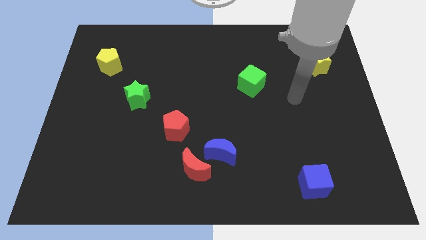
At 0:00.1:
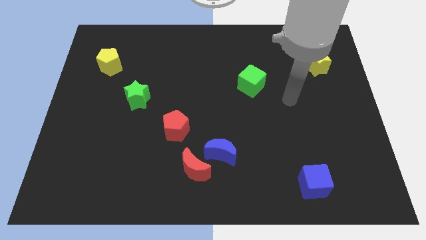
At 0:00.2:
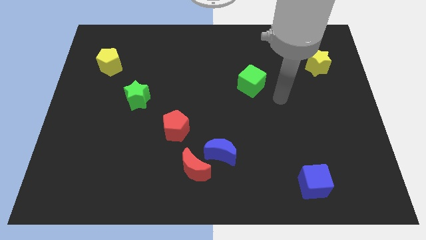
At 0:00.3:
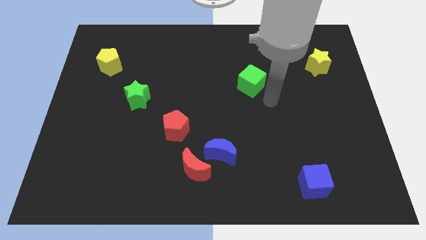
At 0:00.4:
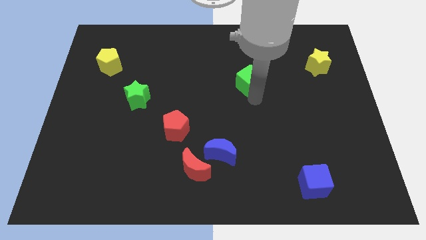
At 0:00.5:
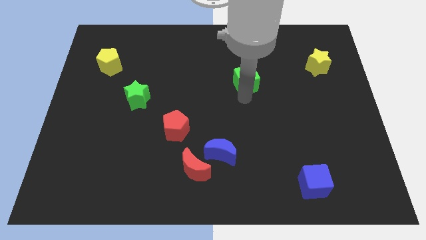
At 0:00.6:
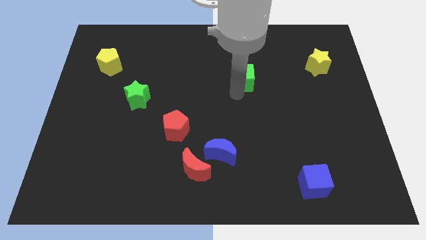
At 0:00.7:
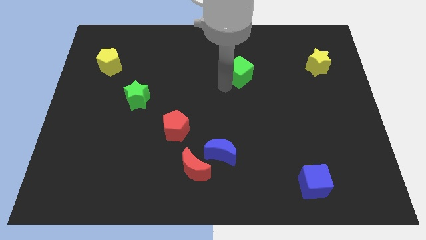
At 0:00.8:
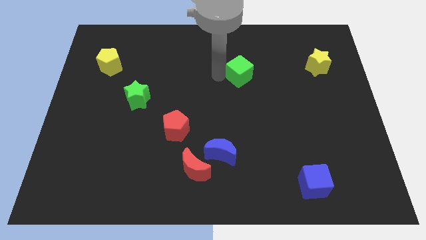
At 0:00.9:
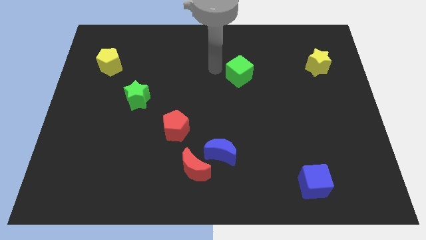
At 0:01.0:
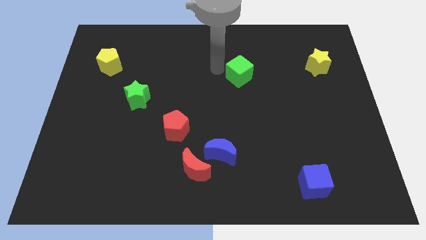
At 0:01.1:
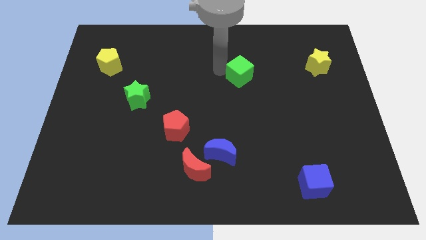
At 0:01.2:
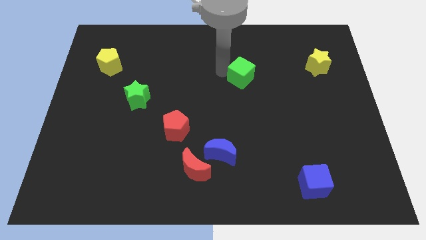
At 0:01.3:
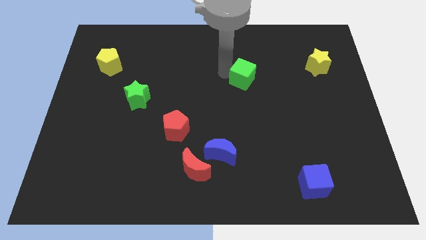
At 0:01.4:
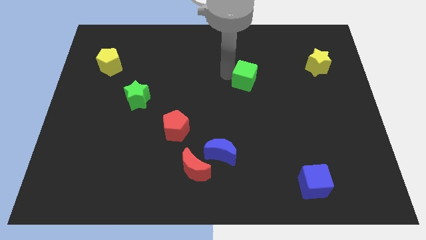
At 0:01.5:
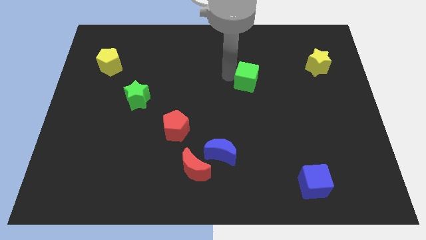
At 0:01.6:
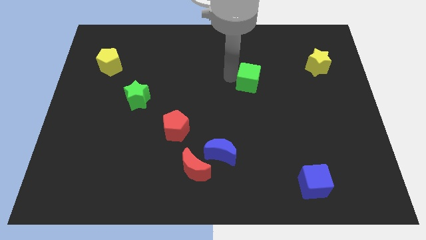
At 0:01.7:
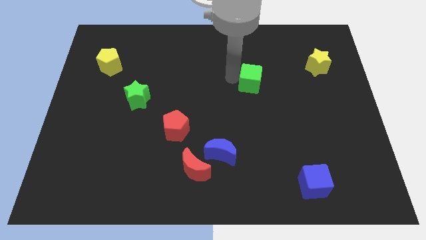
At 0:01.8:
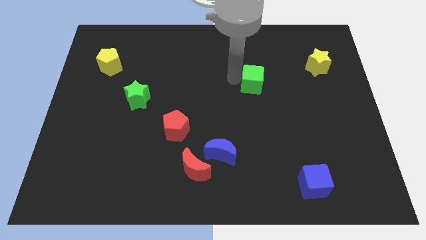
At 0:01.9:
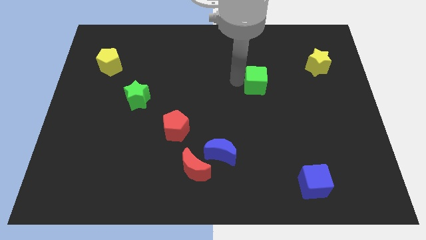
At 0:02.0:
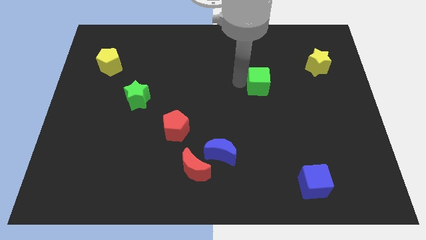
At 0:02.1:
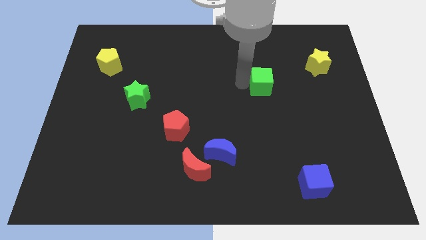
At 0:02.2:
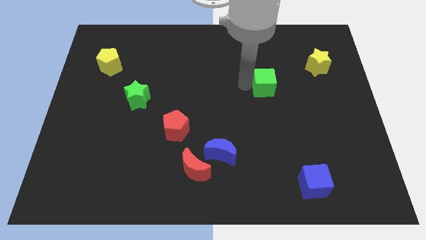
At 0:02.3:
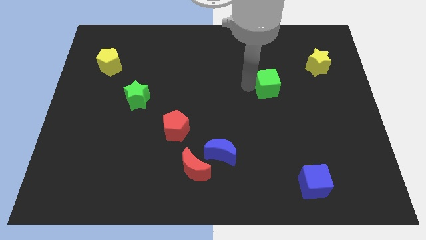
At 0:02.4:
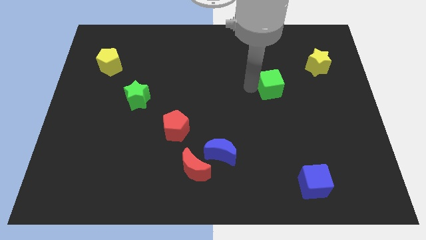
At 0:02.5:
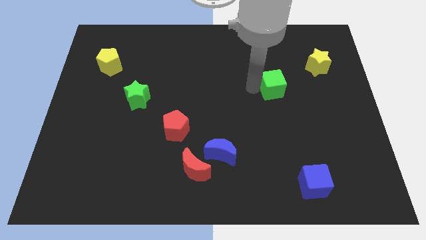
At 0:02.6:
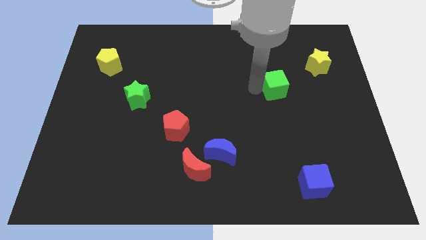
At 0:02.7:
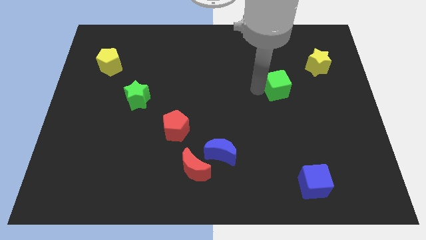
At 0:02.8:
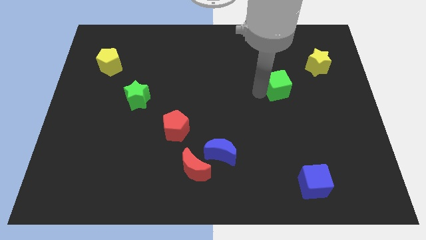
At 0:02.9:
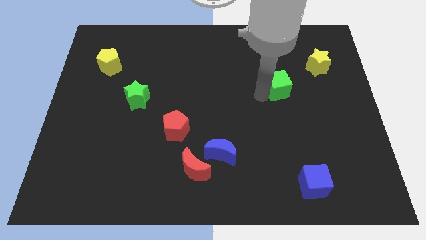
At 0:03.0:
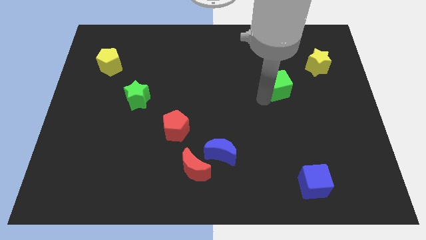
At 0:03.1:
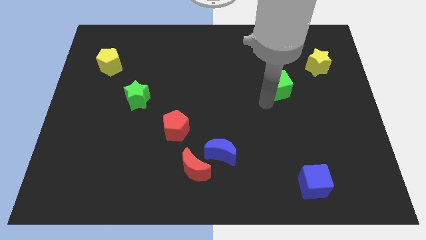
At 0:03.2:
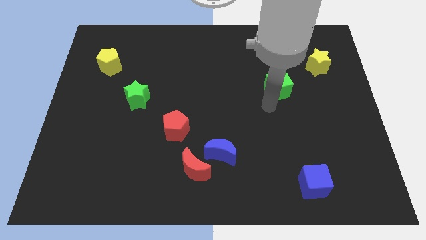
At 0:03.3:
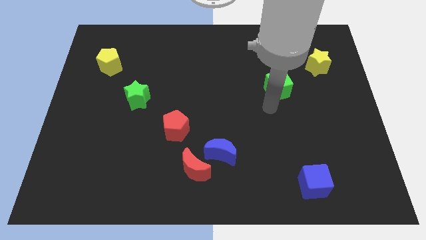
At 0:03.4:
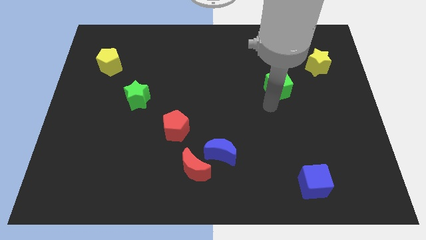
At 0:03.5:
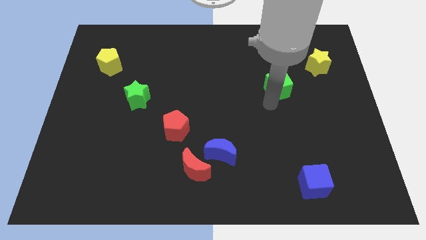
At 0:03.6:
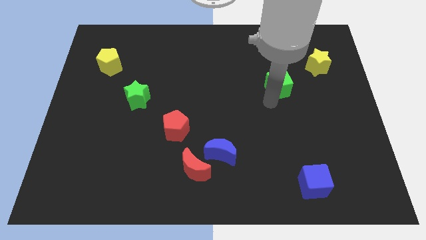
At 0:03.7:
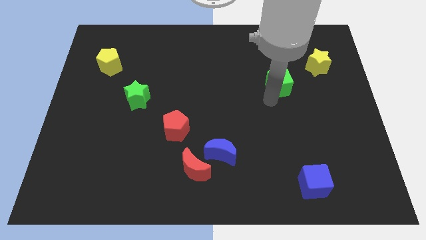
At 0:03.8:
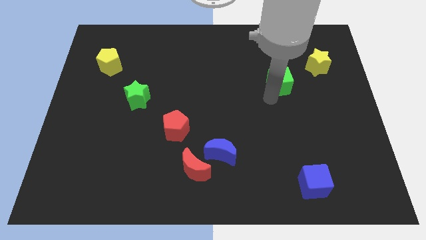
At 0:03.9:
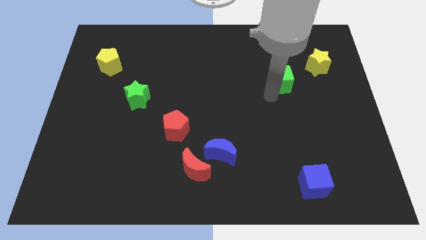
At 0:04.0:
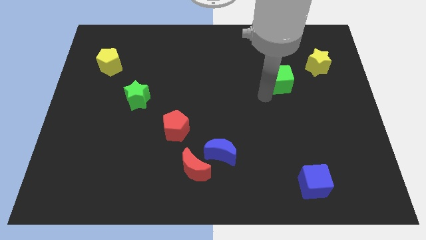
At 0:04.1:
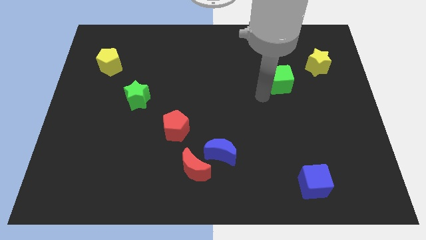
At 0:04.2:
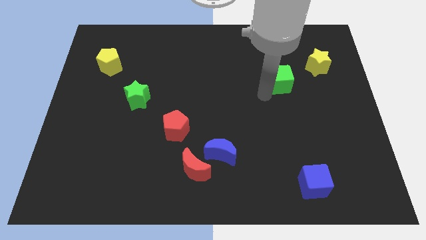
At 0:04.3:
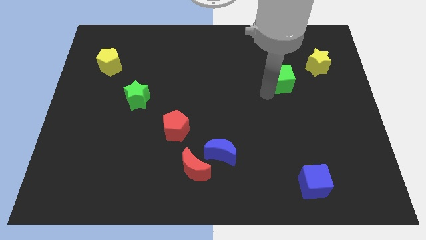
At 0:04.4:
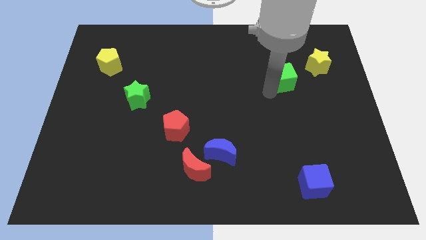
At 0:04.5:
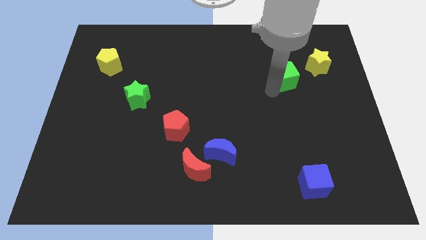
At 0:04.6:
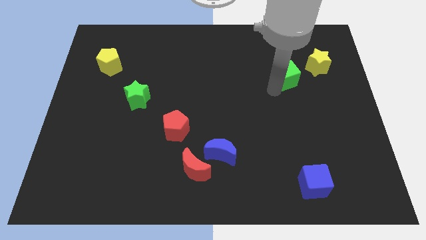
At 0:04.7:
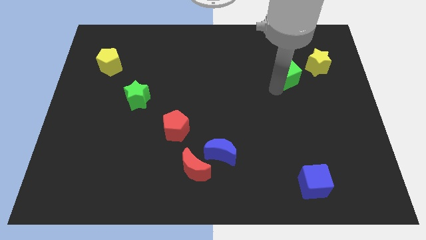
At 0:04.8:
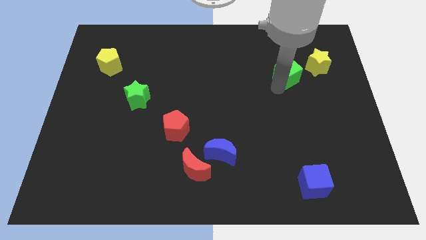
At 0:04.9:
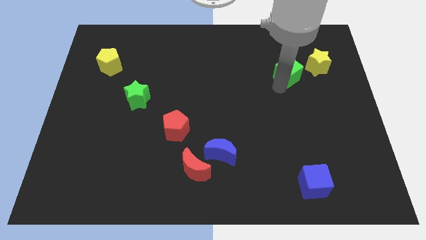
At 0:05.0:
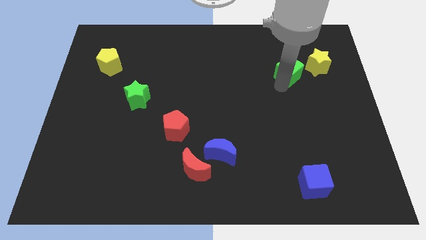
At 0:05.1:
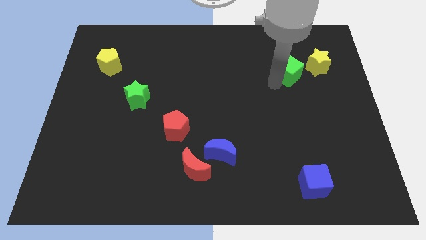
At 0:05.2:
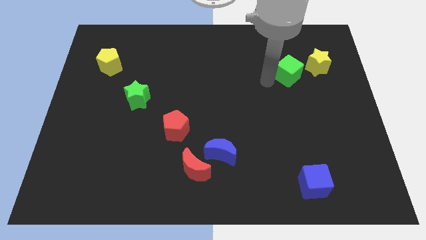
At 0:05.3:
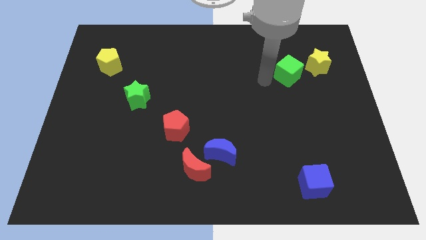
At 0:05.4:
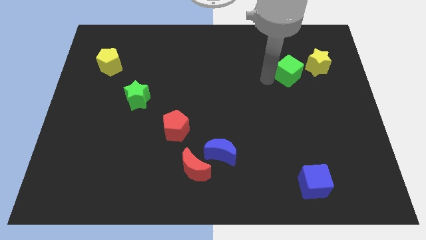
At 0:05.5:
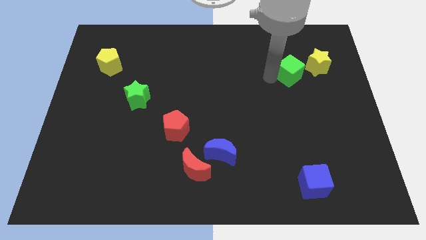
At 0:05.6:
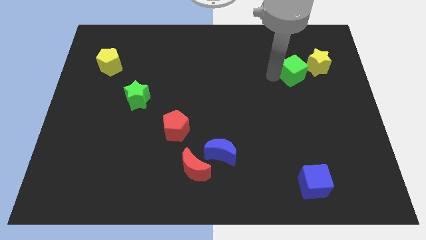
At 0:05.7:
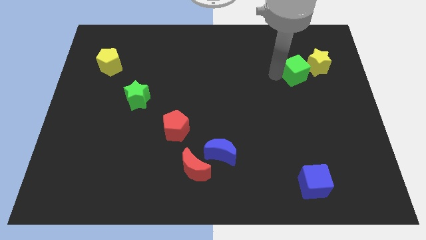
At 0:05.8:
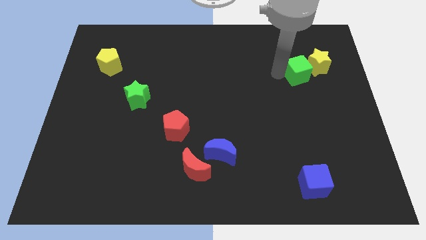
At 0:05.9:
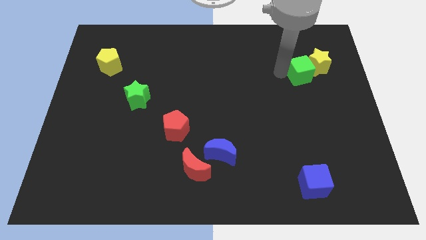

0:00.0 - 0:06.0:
push the green cube next to the yellow star

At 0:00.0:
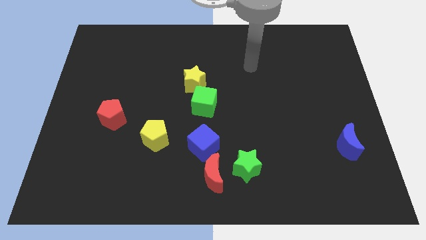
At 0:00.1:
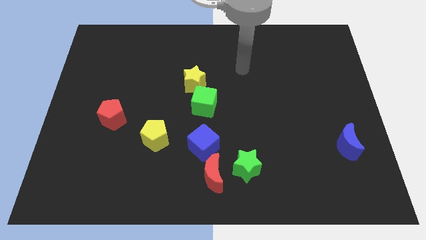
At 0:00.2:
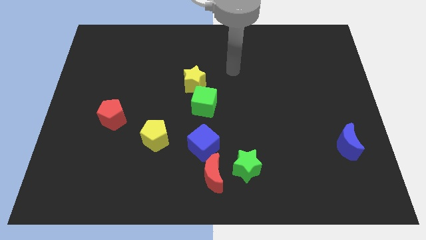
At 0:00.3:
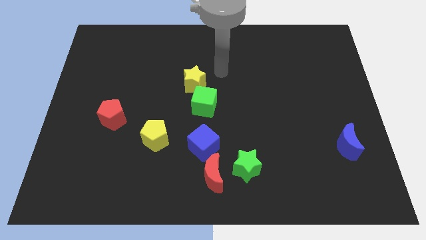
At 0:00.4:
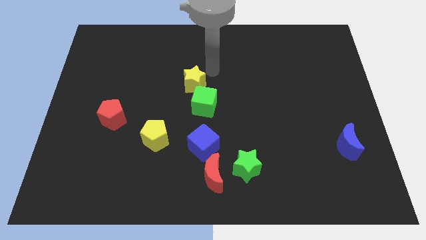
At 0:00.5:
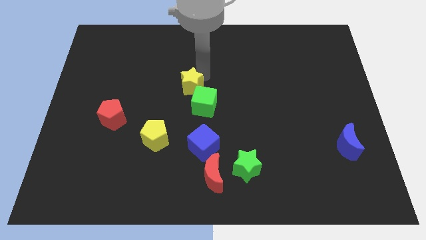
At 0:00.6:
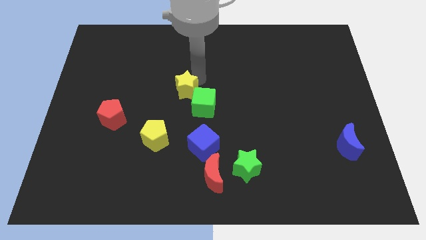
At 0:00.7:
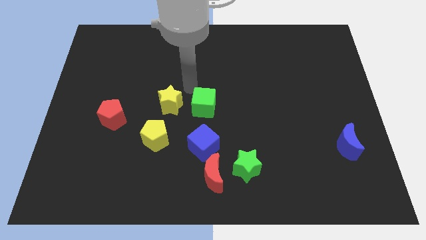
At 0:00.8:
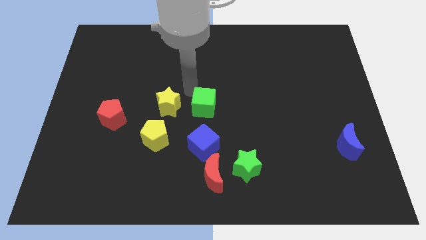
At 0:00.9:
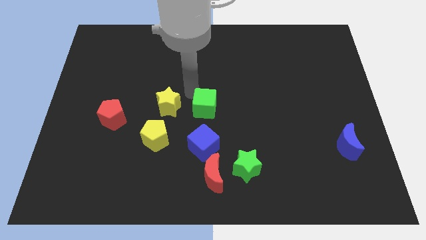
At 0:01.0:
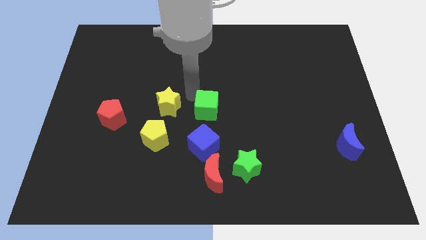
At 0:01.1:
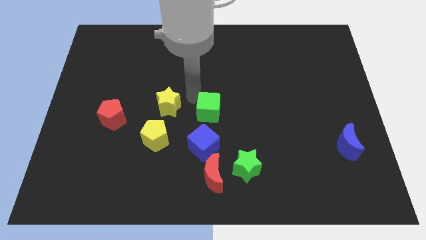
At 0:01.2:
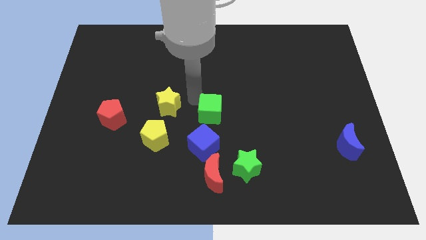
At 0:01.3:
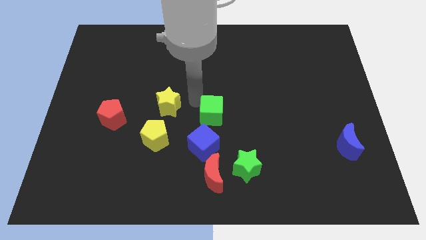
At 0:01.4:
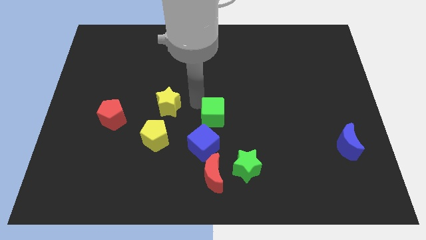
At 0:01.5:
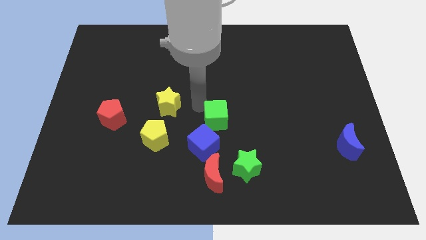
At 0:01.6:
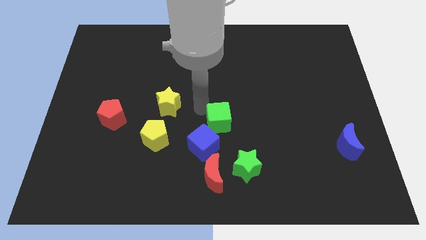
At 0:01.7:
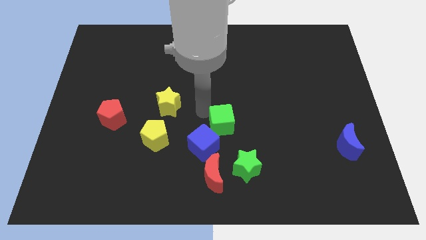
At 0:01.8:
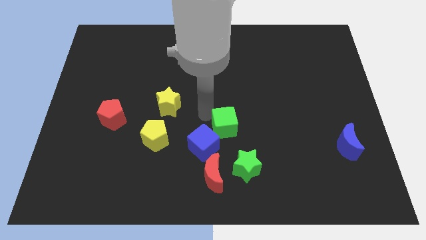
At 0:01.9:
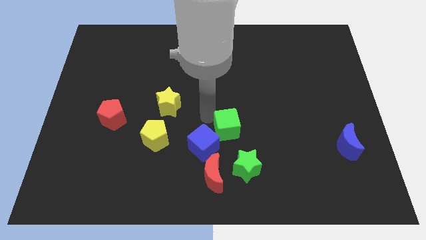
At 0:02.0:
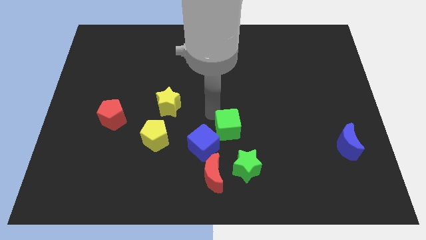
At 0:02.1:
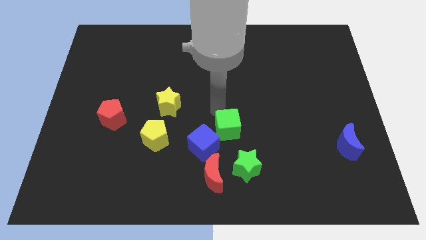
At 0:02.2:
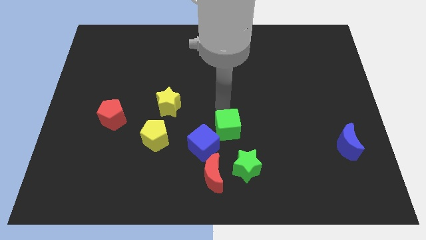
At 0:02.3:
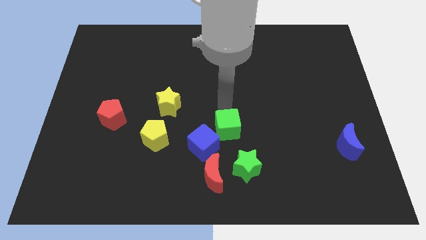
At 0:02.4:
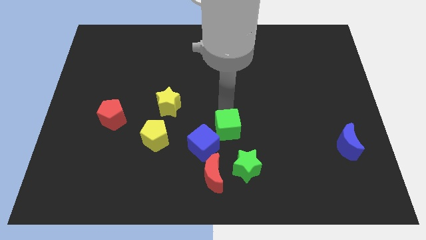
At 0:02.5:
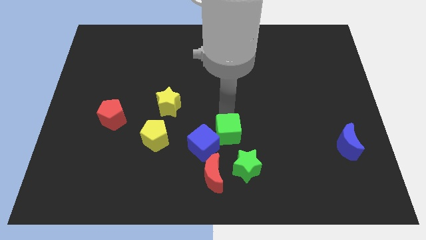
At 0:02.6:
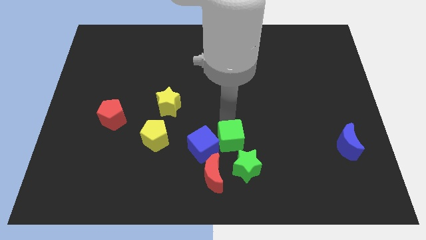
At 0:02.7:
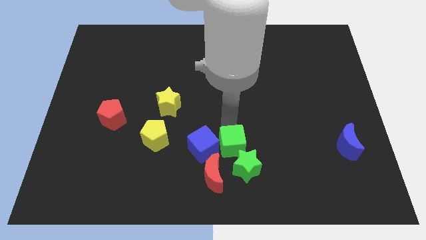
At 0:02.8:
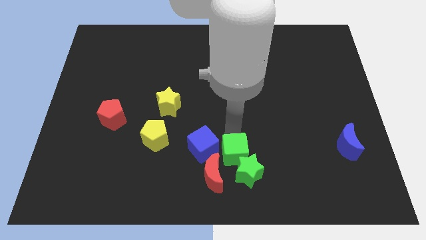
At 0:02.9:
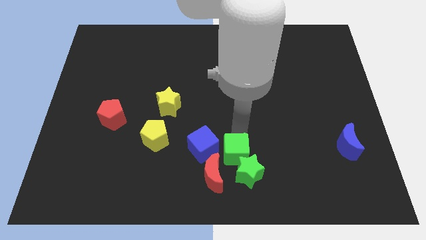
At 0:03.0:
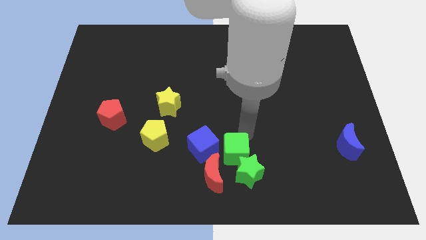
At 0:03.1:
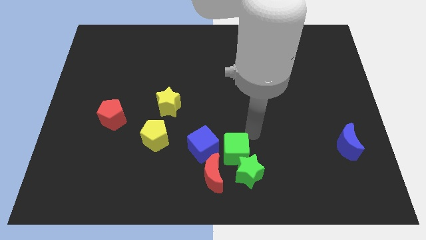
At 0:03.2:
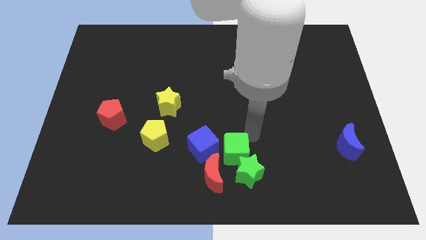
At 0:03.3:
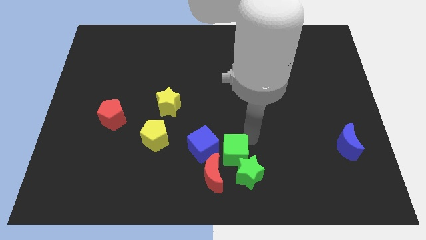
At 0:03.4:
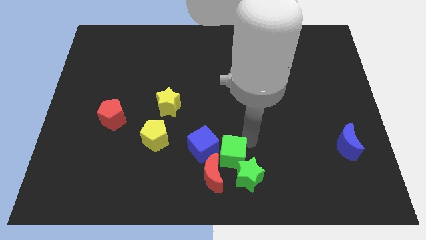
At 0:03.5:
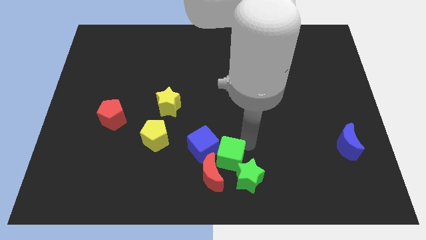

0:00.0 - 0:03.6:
move the green cube next to the red moon
